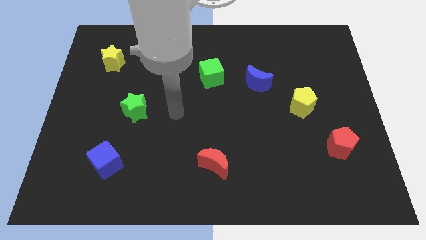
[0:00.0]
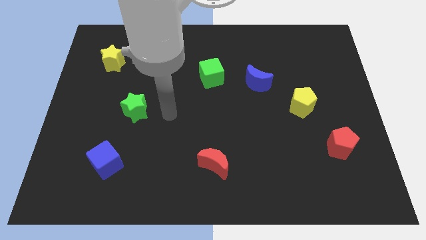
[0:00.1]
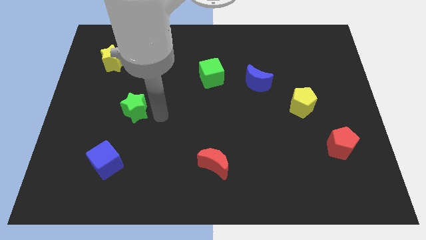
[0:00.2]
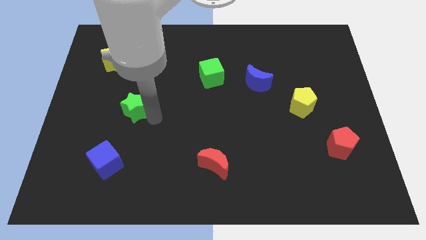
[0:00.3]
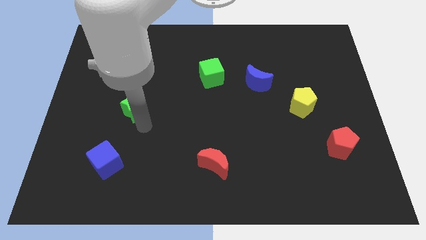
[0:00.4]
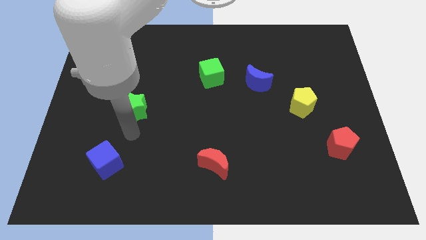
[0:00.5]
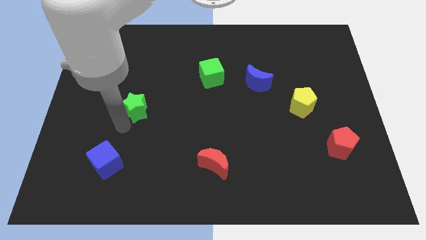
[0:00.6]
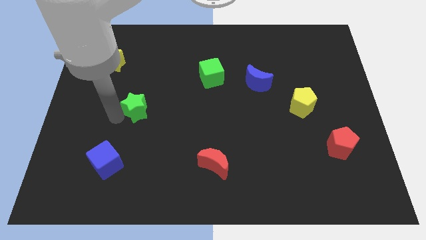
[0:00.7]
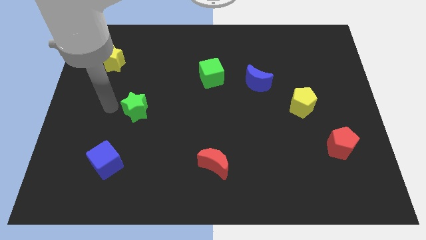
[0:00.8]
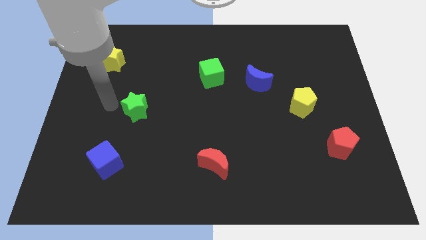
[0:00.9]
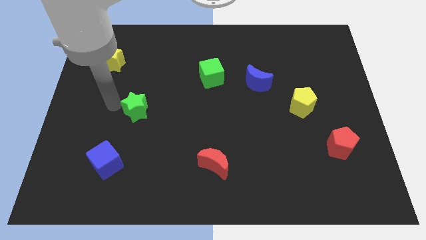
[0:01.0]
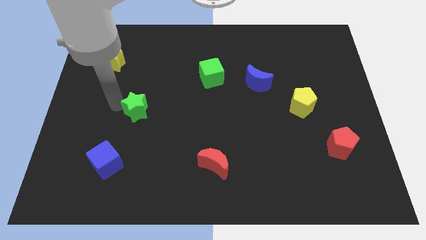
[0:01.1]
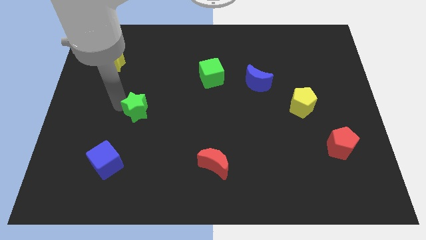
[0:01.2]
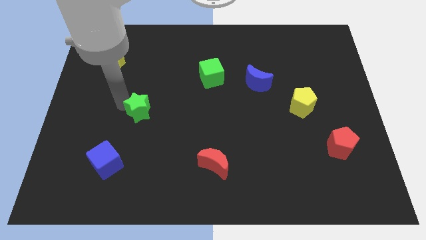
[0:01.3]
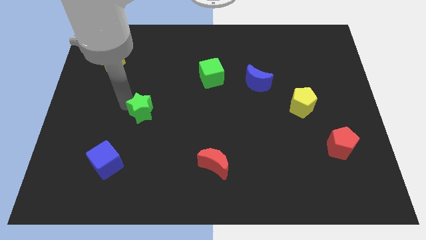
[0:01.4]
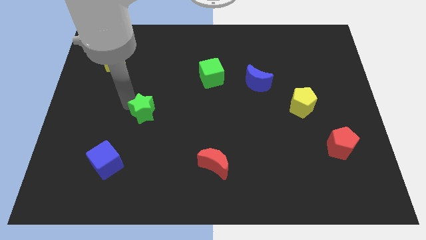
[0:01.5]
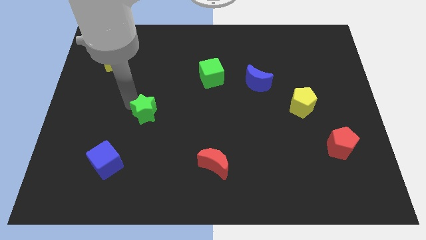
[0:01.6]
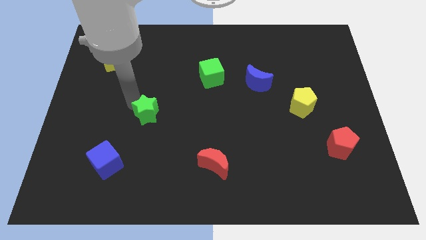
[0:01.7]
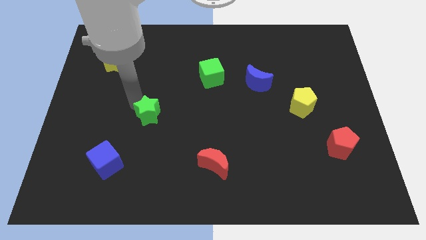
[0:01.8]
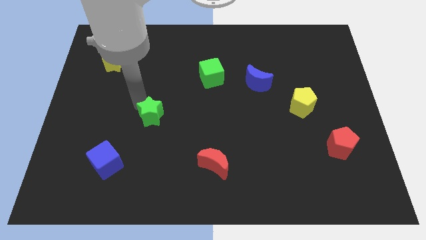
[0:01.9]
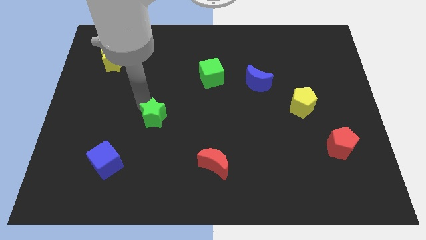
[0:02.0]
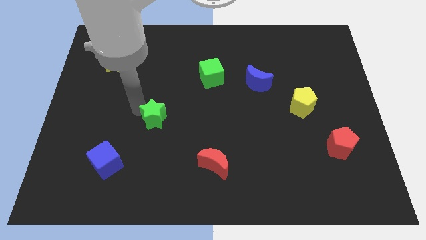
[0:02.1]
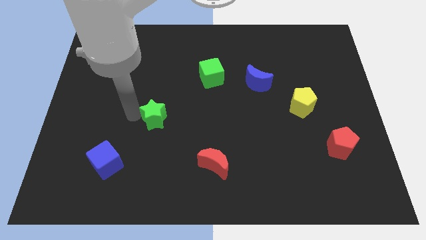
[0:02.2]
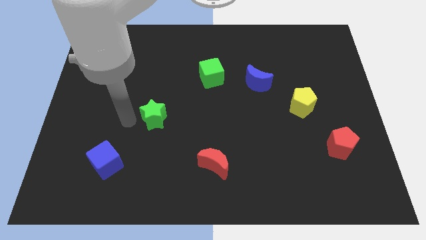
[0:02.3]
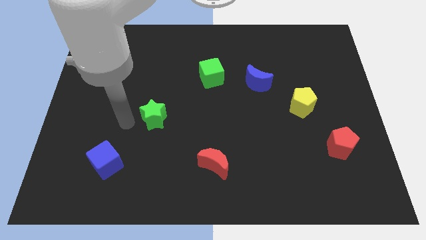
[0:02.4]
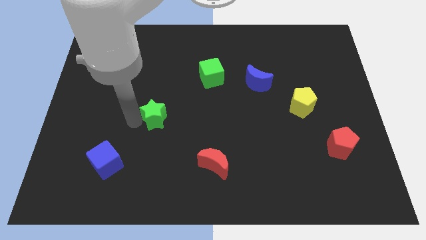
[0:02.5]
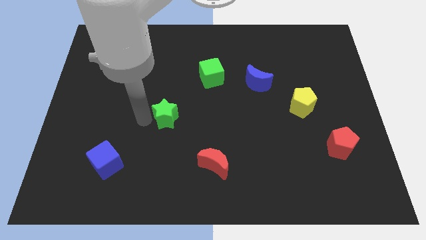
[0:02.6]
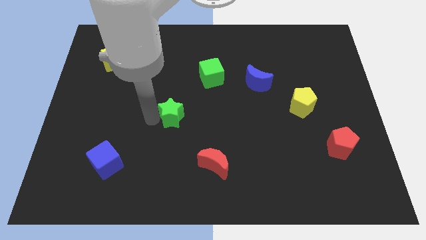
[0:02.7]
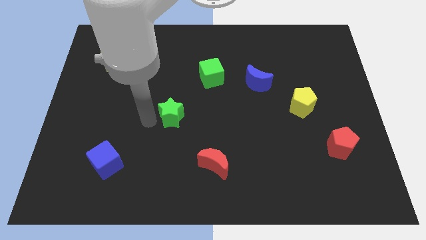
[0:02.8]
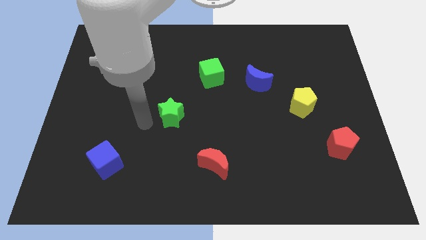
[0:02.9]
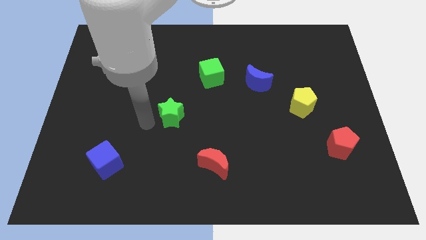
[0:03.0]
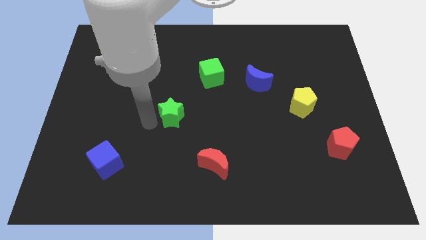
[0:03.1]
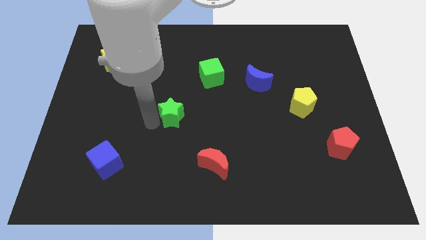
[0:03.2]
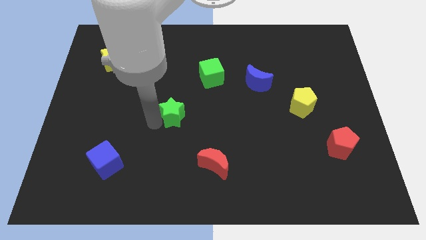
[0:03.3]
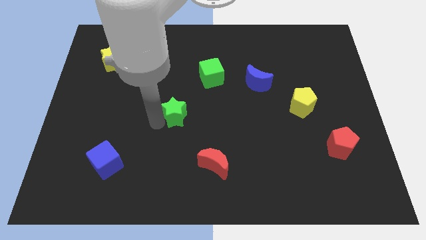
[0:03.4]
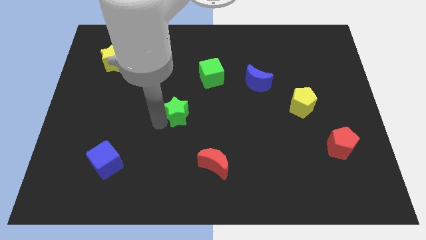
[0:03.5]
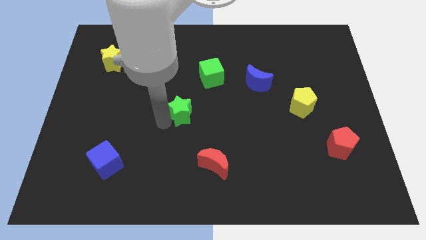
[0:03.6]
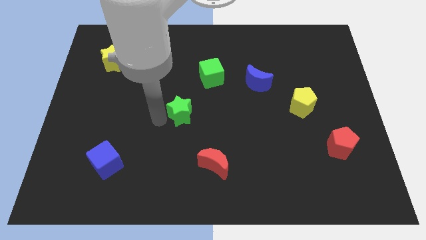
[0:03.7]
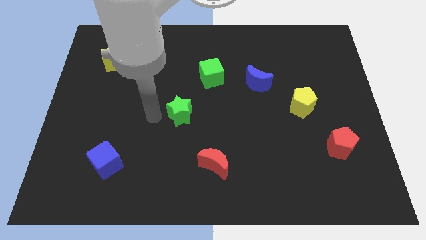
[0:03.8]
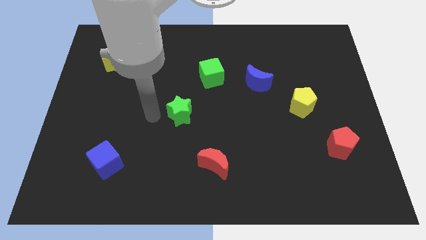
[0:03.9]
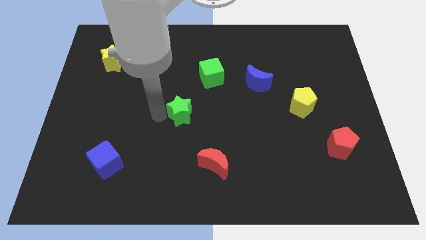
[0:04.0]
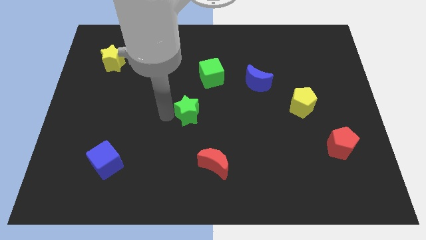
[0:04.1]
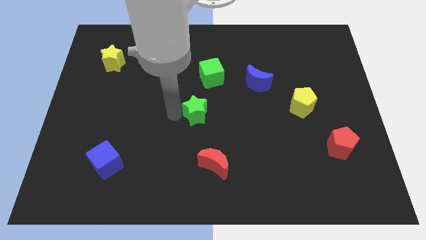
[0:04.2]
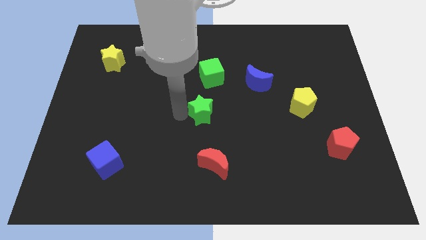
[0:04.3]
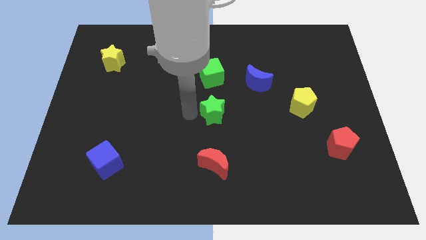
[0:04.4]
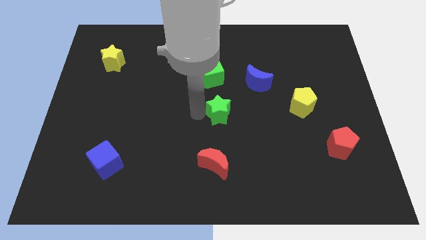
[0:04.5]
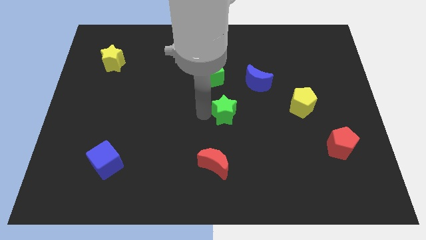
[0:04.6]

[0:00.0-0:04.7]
push the green star right

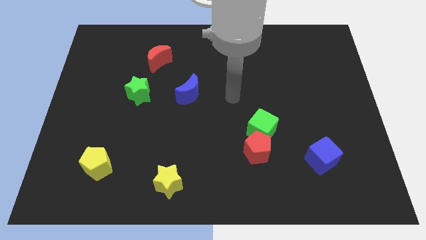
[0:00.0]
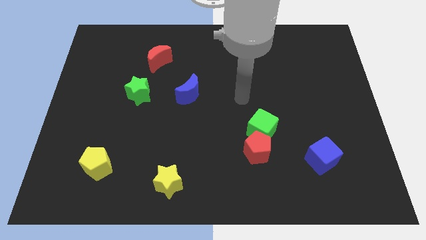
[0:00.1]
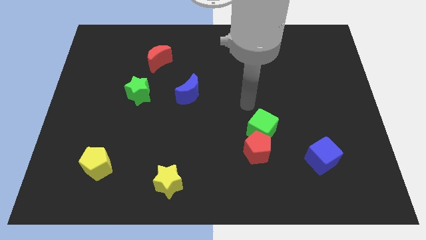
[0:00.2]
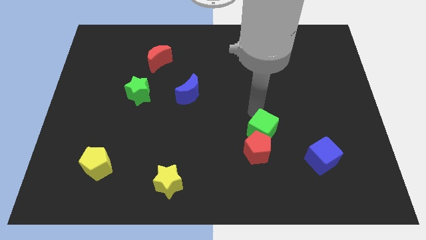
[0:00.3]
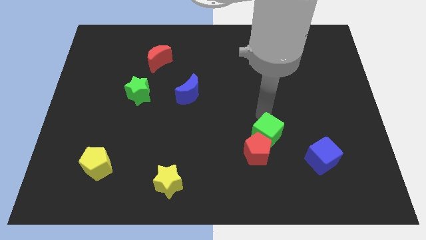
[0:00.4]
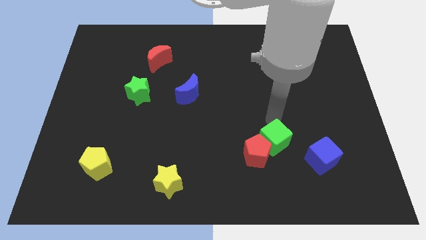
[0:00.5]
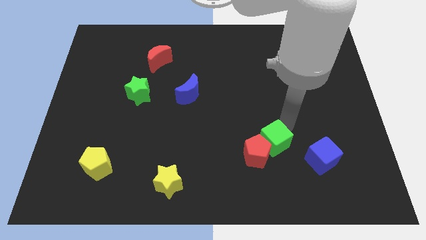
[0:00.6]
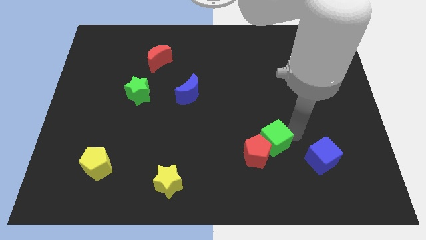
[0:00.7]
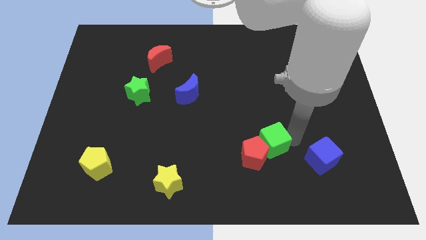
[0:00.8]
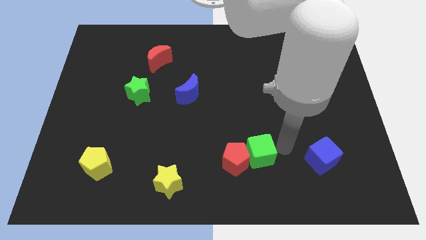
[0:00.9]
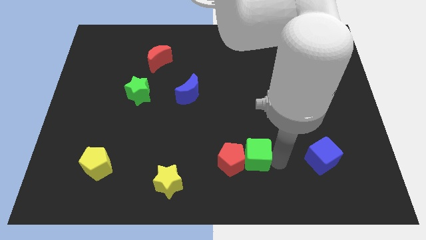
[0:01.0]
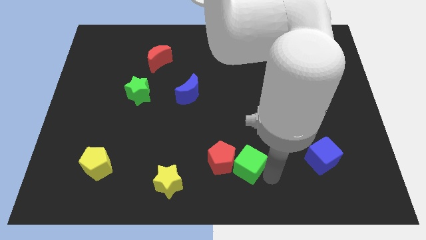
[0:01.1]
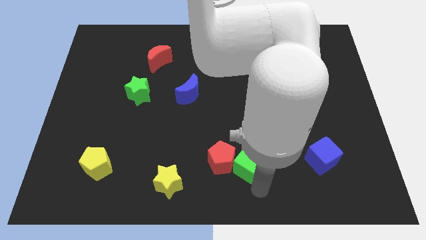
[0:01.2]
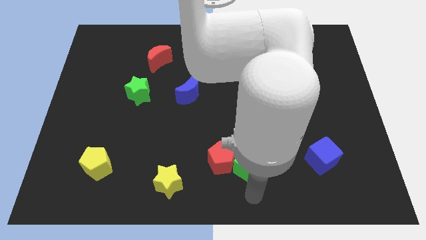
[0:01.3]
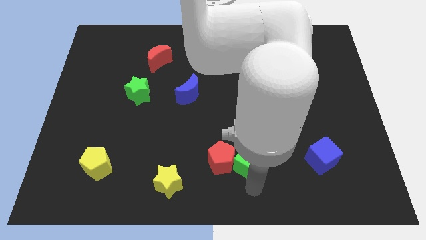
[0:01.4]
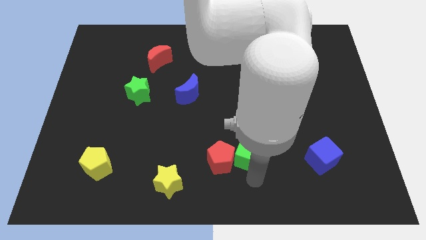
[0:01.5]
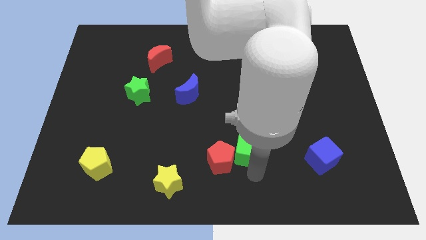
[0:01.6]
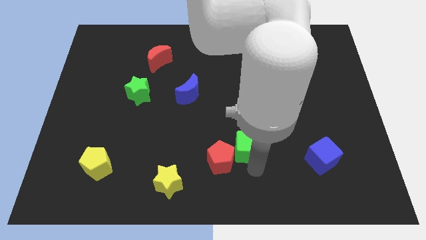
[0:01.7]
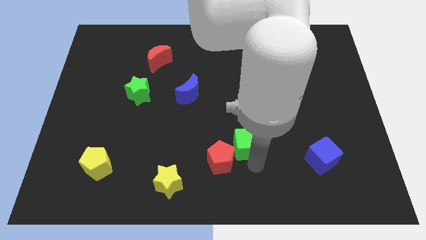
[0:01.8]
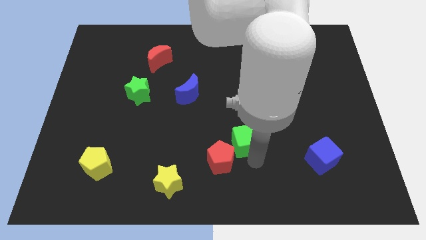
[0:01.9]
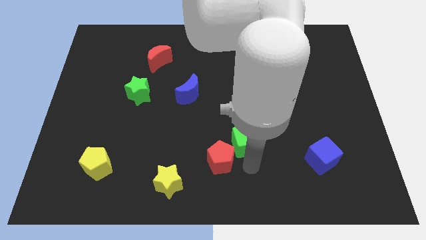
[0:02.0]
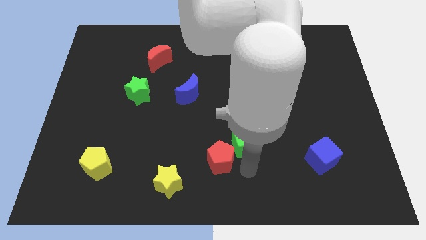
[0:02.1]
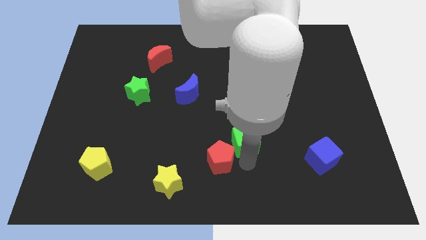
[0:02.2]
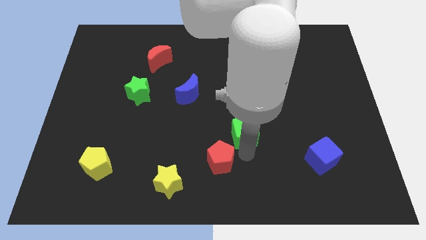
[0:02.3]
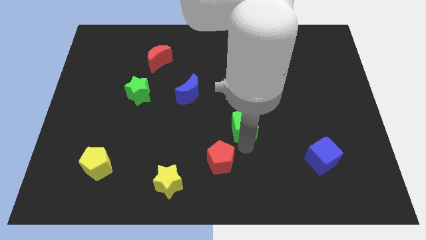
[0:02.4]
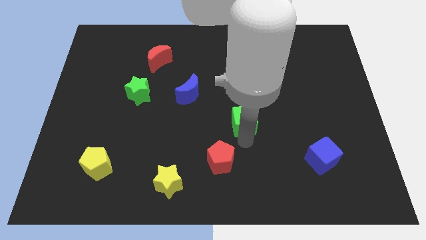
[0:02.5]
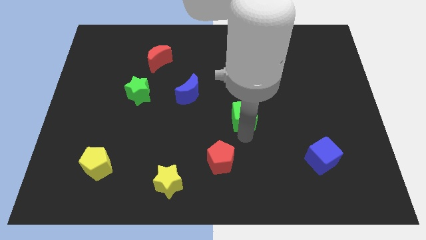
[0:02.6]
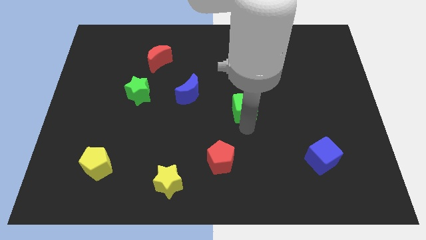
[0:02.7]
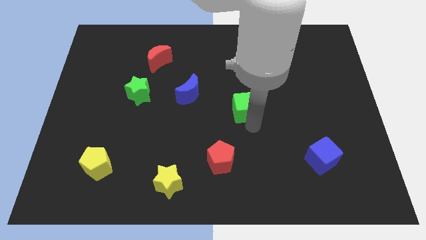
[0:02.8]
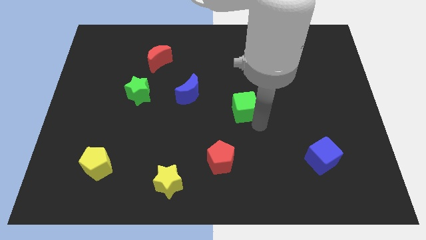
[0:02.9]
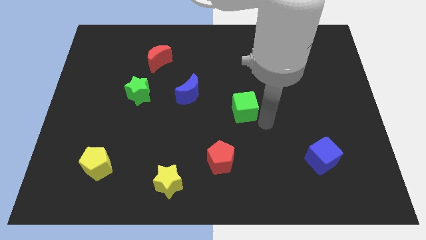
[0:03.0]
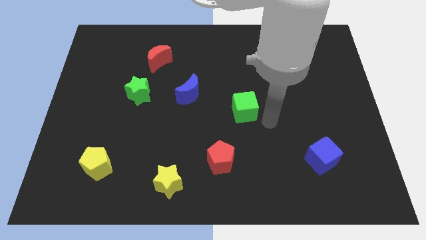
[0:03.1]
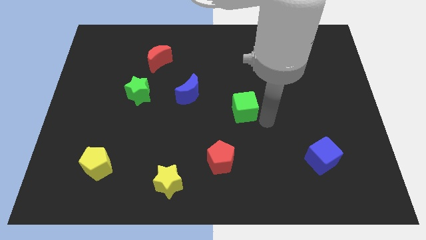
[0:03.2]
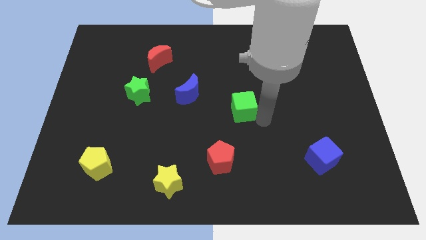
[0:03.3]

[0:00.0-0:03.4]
slide the green cube upwards and to the left diagonally a bit

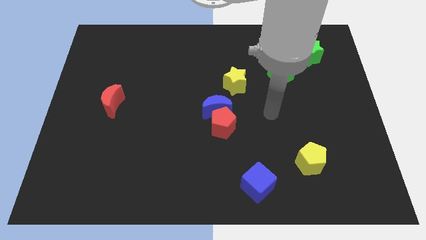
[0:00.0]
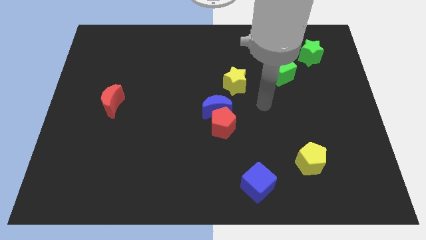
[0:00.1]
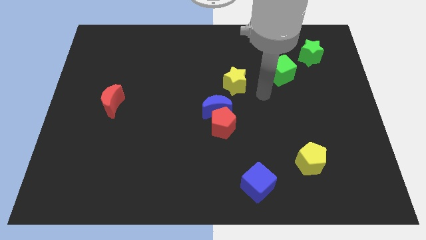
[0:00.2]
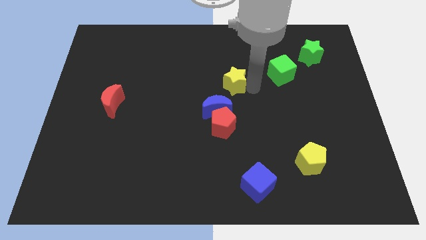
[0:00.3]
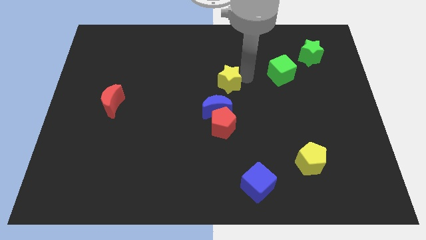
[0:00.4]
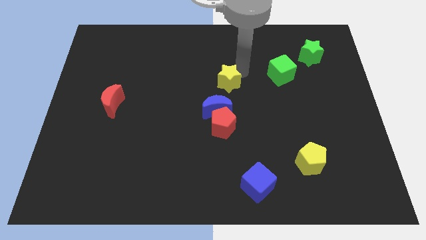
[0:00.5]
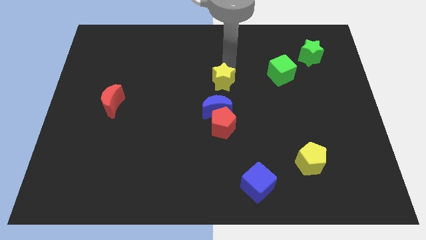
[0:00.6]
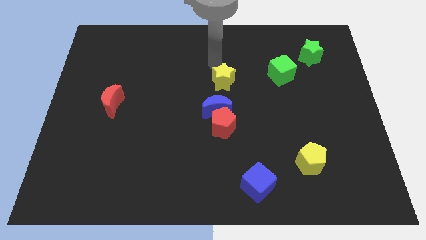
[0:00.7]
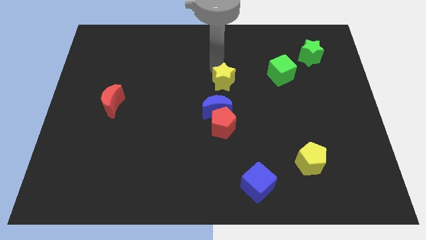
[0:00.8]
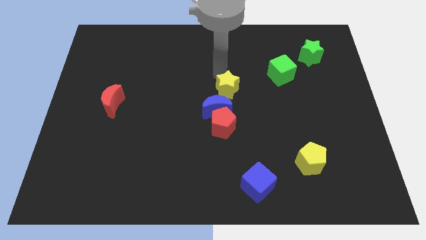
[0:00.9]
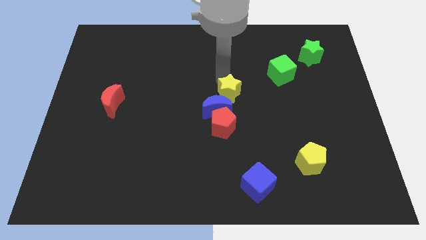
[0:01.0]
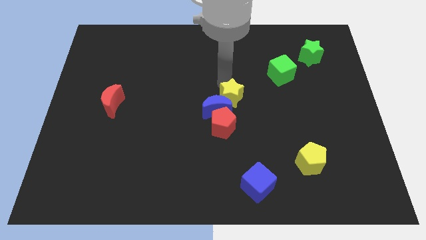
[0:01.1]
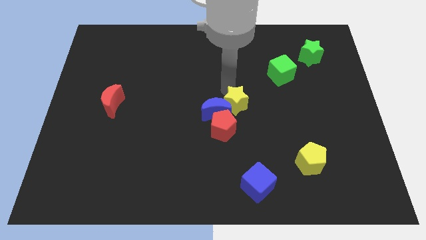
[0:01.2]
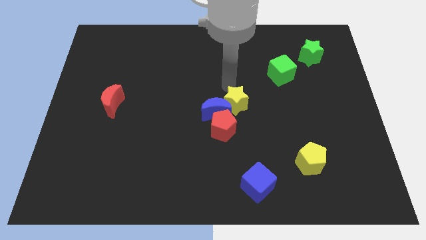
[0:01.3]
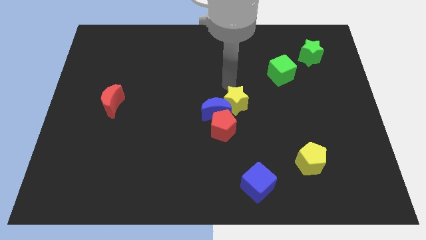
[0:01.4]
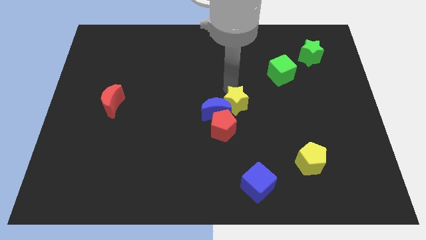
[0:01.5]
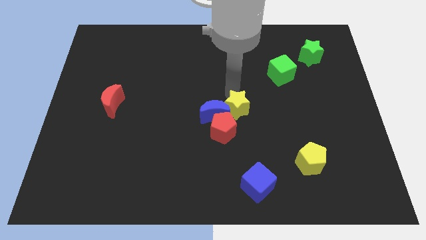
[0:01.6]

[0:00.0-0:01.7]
slide the yellow star a little downwards
